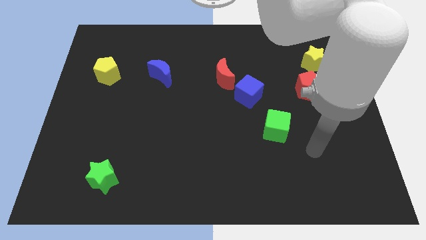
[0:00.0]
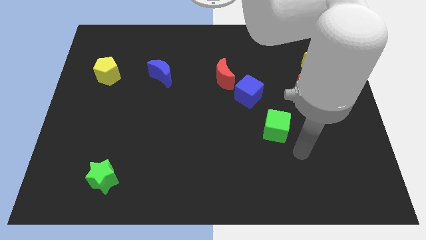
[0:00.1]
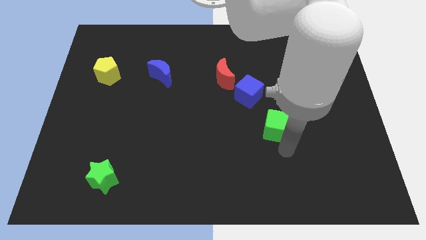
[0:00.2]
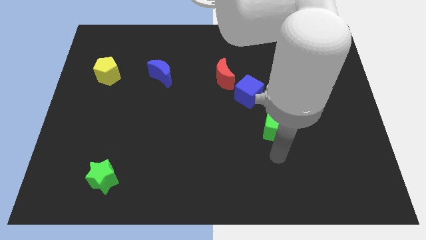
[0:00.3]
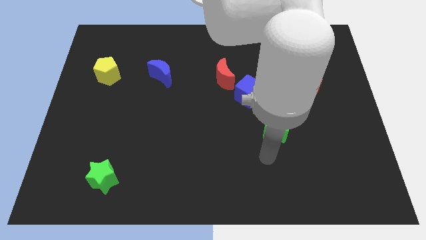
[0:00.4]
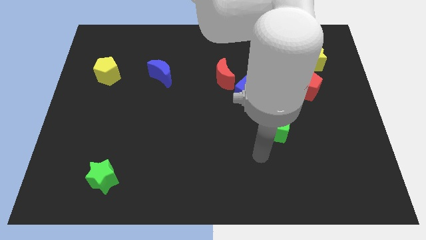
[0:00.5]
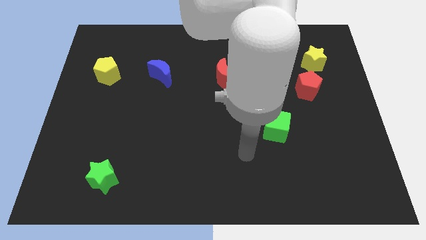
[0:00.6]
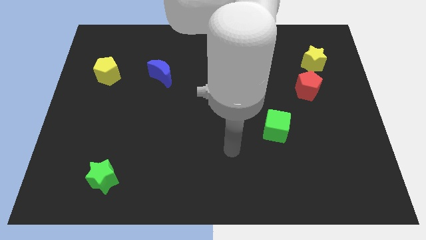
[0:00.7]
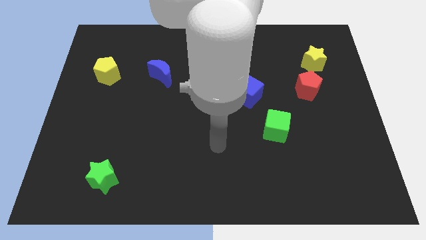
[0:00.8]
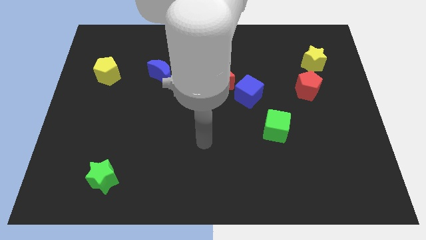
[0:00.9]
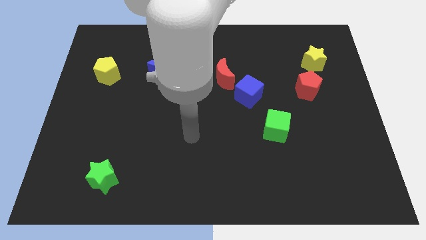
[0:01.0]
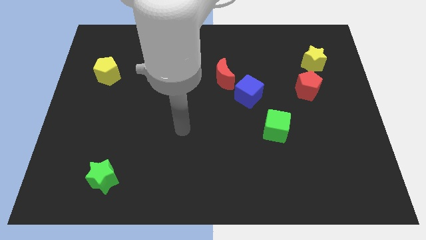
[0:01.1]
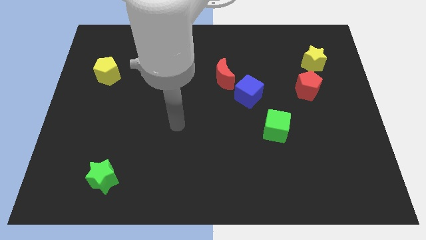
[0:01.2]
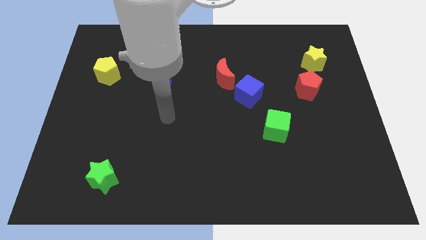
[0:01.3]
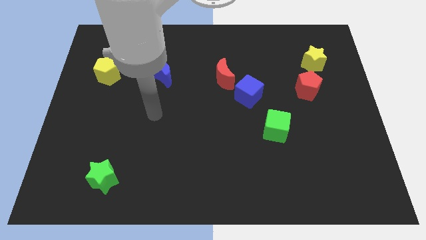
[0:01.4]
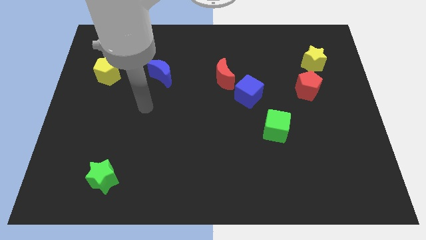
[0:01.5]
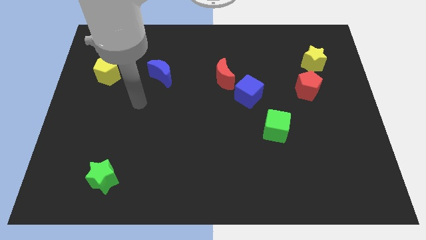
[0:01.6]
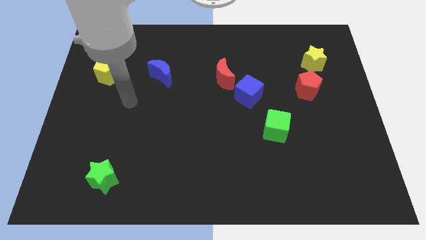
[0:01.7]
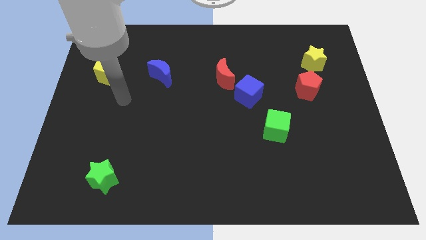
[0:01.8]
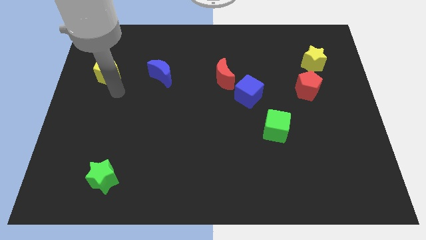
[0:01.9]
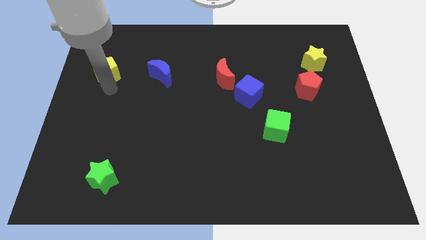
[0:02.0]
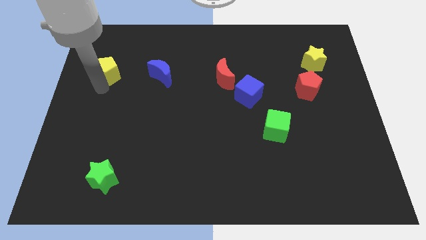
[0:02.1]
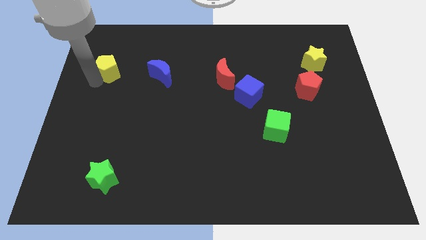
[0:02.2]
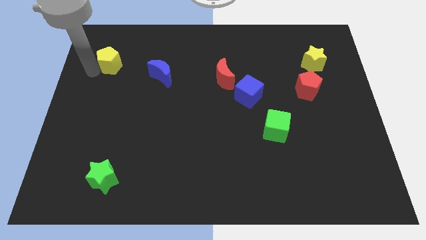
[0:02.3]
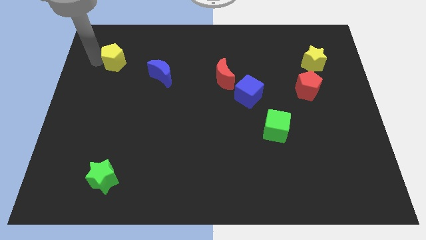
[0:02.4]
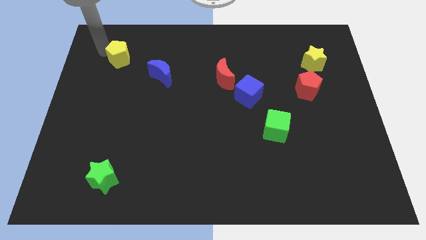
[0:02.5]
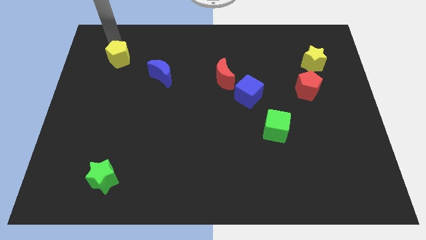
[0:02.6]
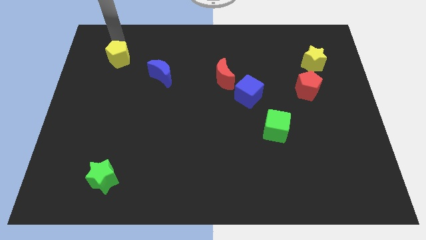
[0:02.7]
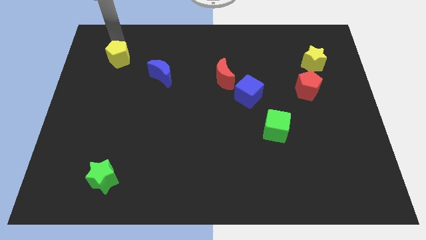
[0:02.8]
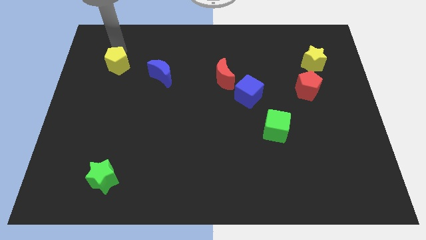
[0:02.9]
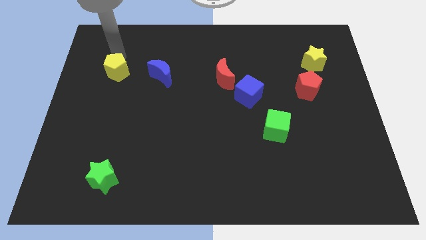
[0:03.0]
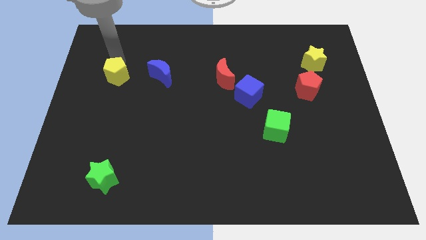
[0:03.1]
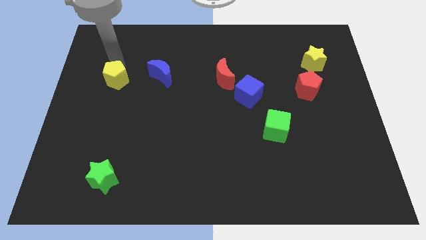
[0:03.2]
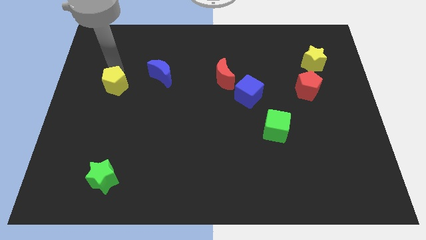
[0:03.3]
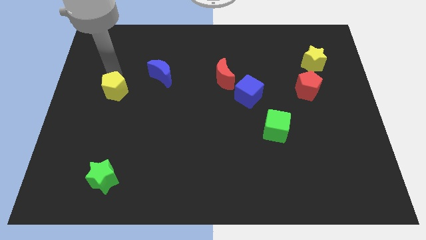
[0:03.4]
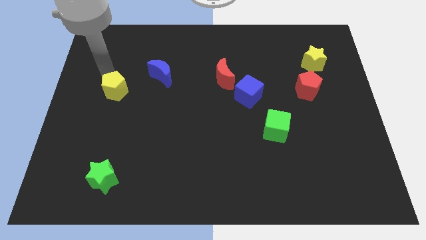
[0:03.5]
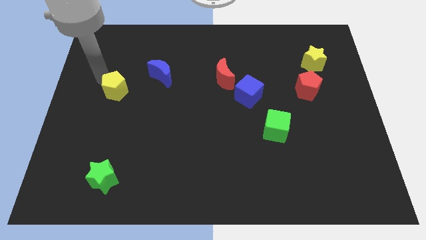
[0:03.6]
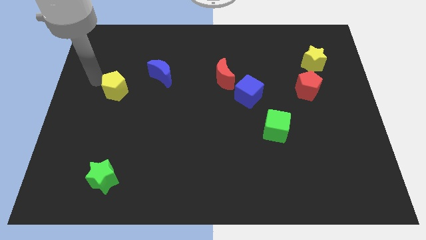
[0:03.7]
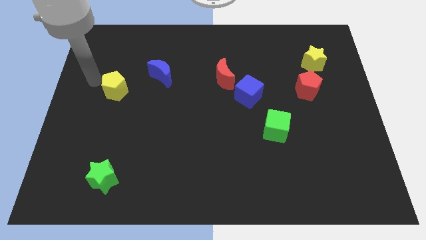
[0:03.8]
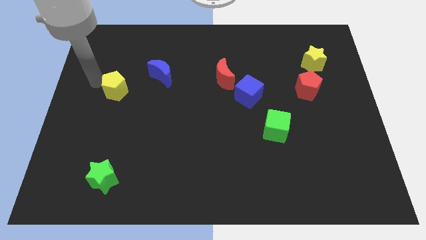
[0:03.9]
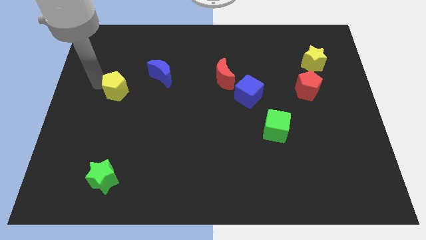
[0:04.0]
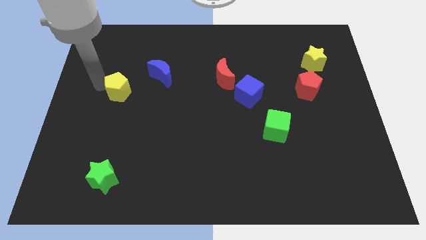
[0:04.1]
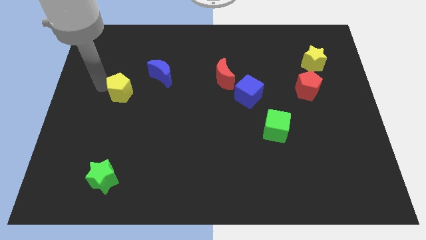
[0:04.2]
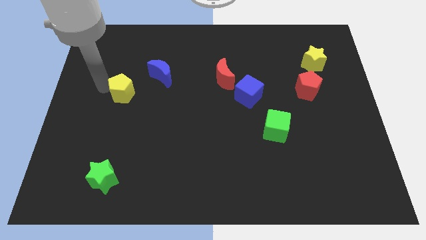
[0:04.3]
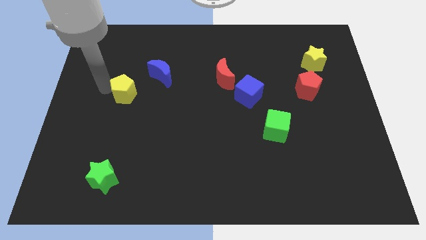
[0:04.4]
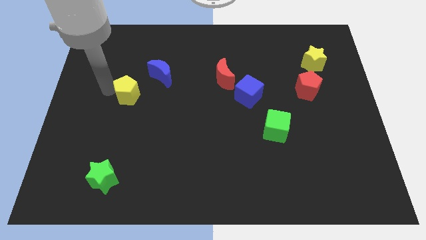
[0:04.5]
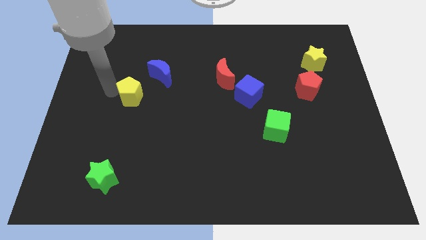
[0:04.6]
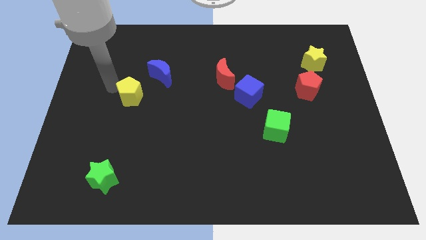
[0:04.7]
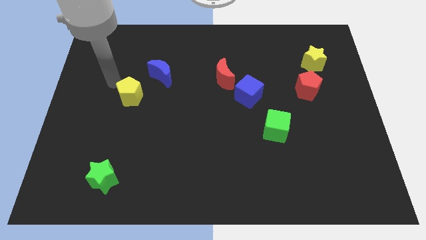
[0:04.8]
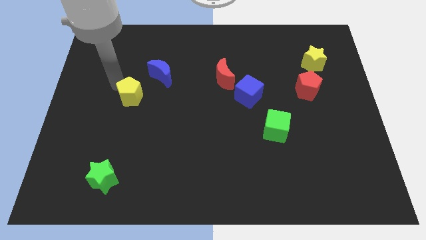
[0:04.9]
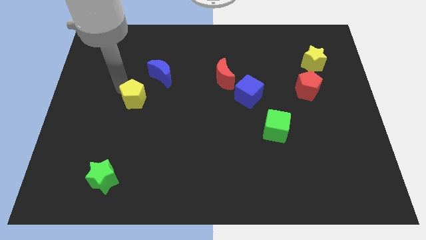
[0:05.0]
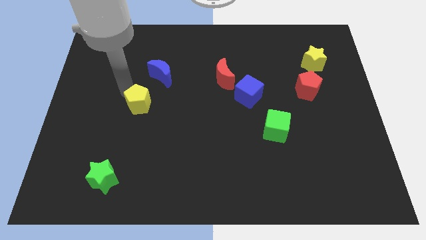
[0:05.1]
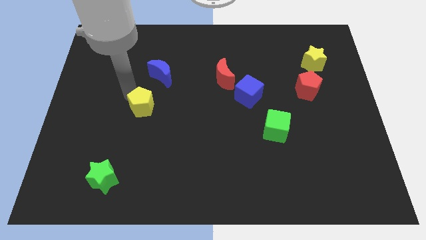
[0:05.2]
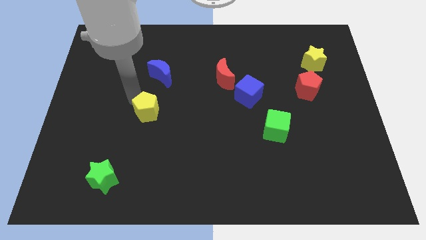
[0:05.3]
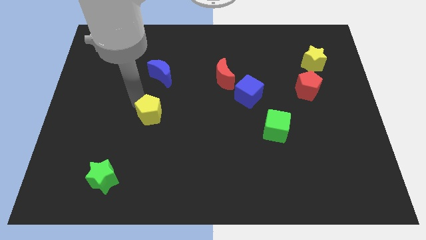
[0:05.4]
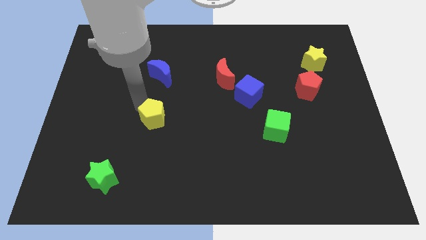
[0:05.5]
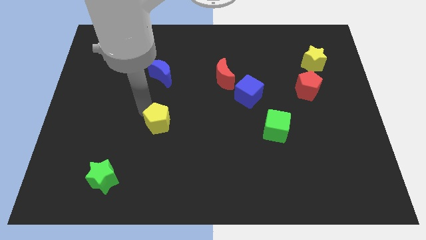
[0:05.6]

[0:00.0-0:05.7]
push the yellow pentagon diagonally down and to the right

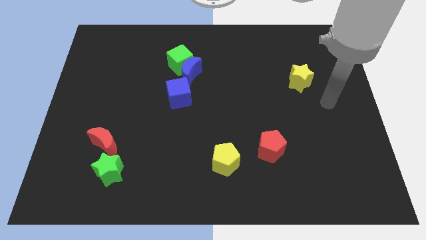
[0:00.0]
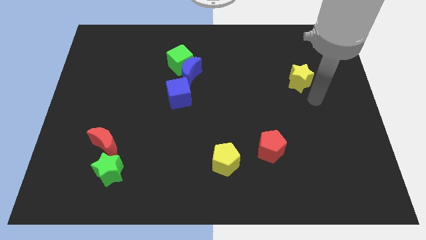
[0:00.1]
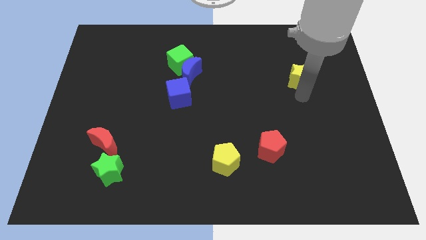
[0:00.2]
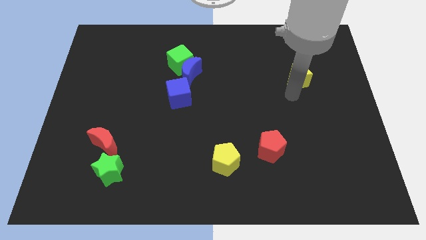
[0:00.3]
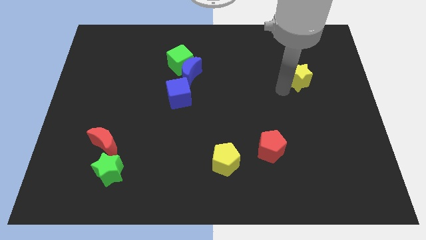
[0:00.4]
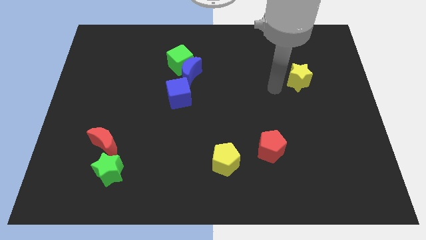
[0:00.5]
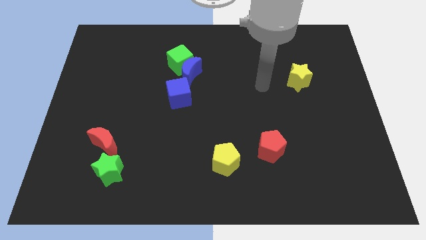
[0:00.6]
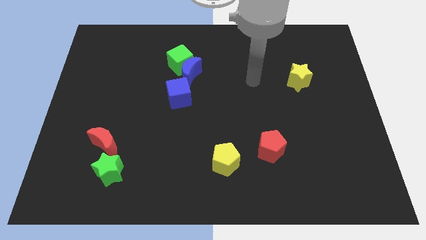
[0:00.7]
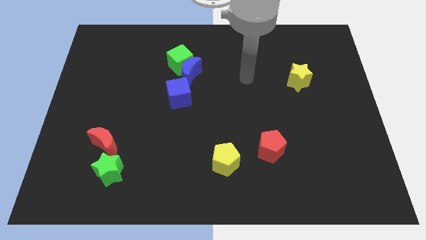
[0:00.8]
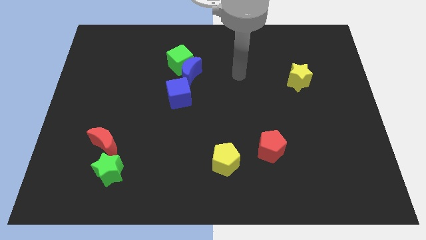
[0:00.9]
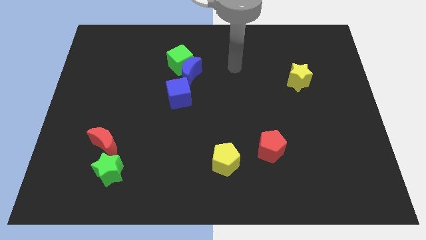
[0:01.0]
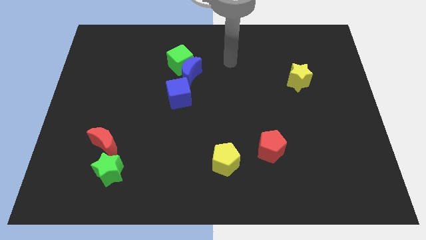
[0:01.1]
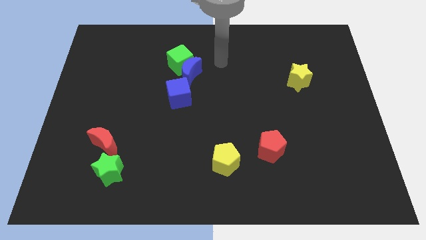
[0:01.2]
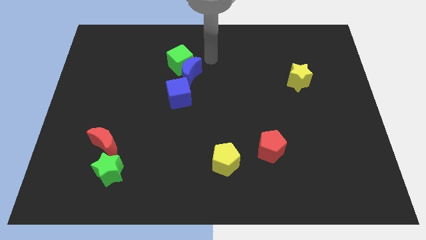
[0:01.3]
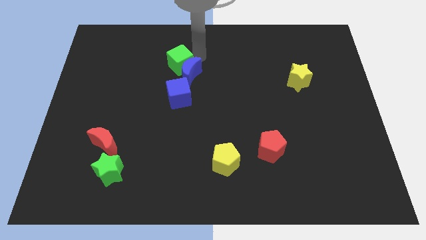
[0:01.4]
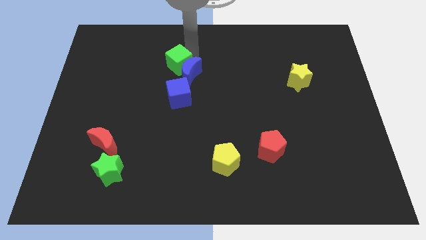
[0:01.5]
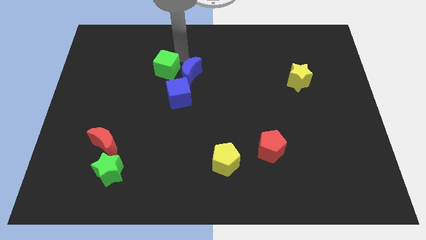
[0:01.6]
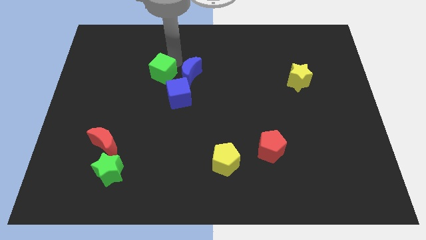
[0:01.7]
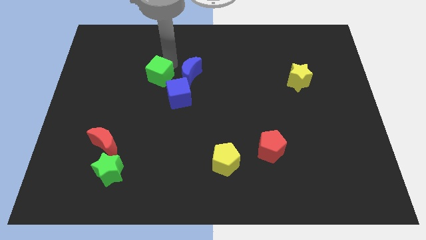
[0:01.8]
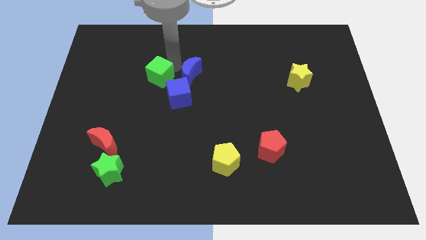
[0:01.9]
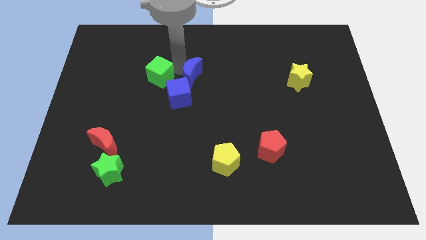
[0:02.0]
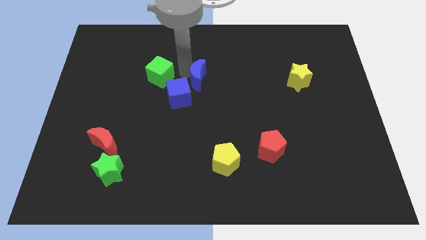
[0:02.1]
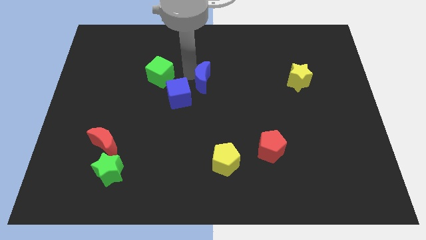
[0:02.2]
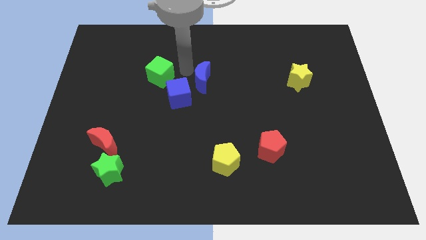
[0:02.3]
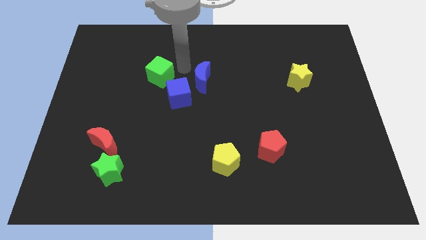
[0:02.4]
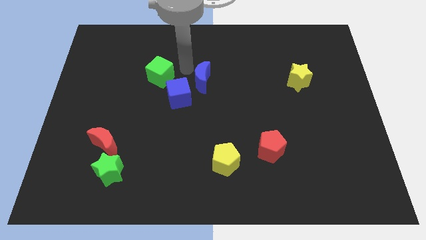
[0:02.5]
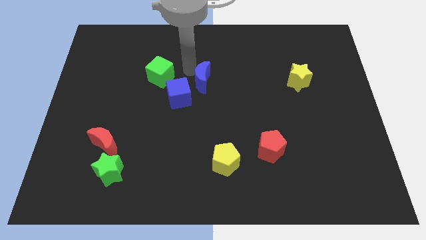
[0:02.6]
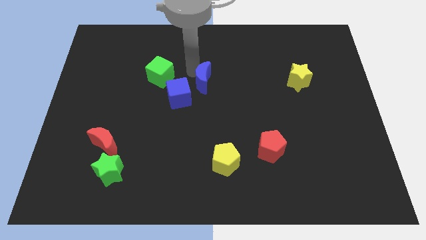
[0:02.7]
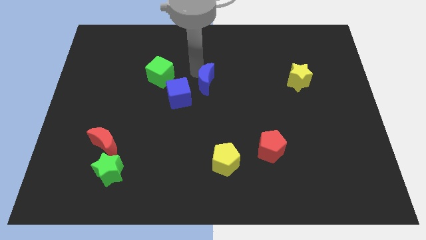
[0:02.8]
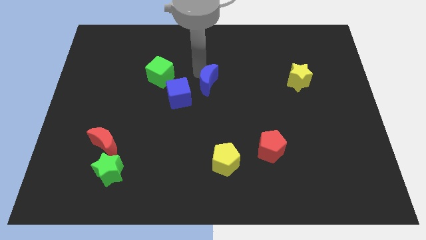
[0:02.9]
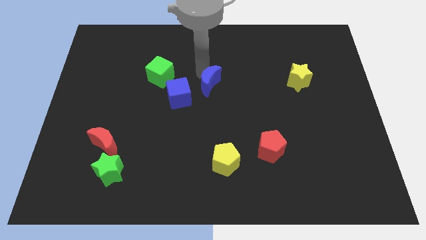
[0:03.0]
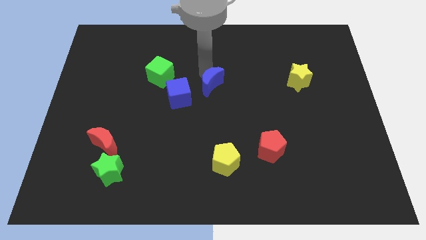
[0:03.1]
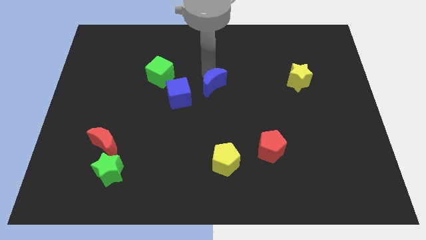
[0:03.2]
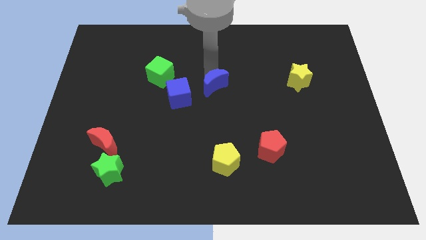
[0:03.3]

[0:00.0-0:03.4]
slightly move the blue moon downwards and right diagonally
